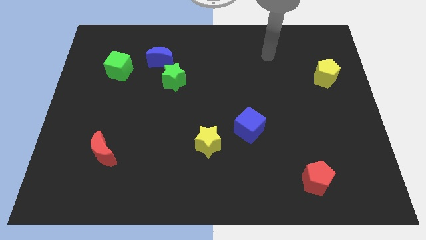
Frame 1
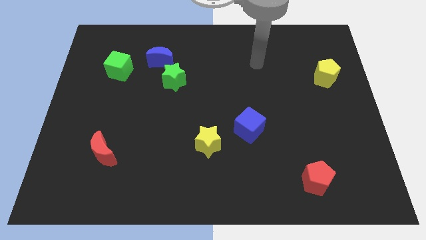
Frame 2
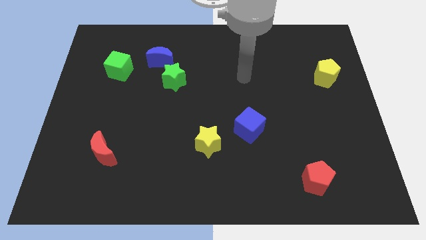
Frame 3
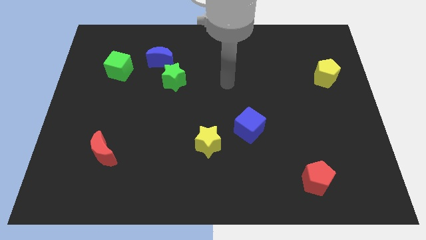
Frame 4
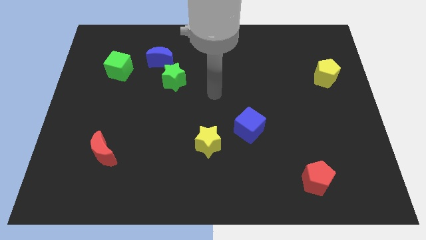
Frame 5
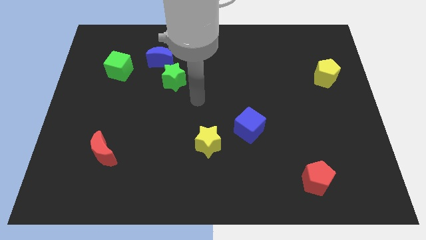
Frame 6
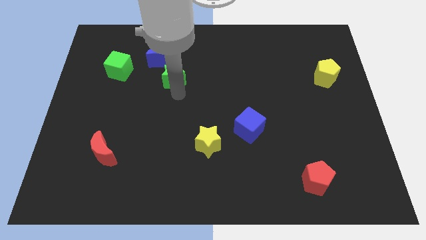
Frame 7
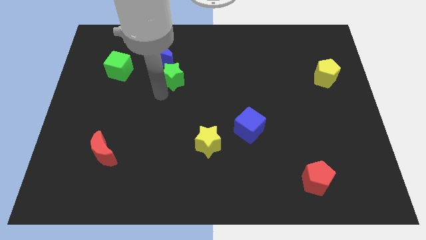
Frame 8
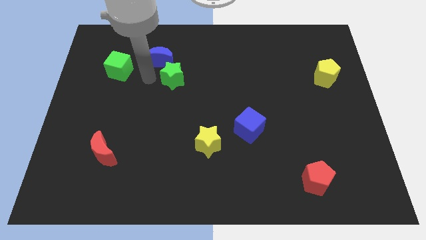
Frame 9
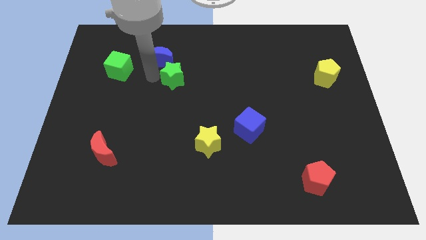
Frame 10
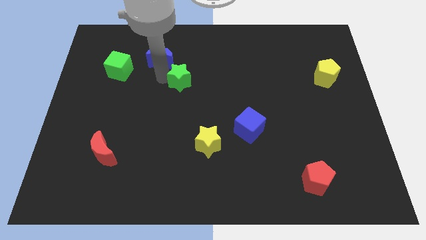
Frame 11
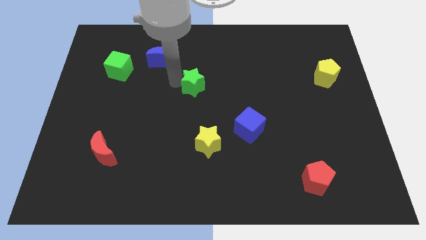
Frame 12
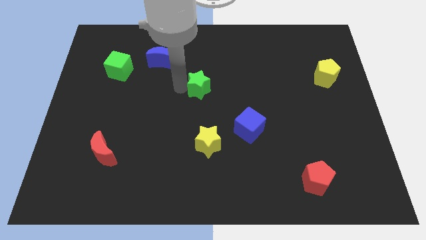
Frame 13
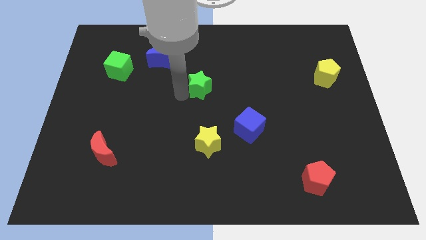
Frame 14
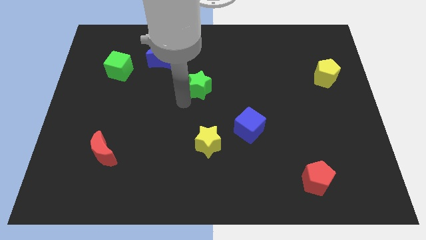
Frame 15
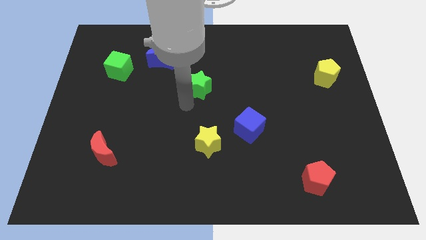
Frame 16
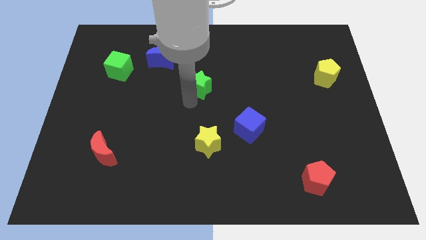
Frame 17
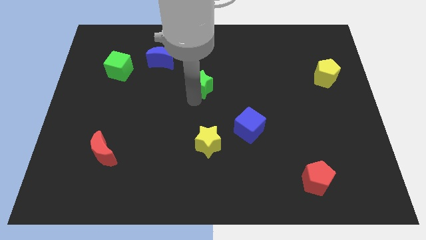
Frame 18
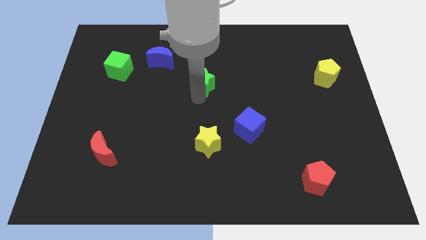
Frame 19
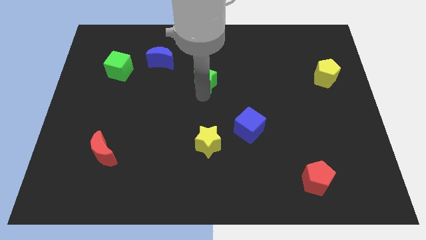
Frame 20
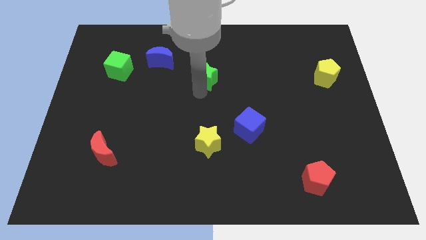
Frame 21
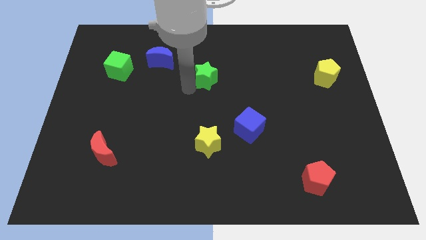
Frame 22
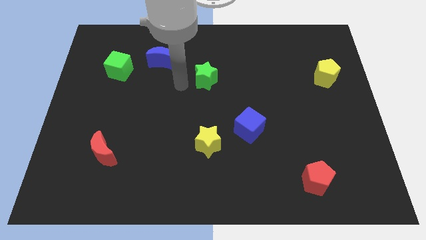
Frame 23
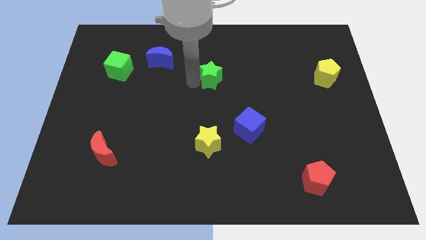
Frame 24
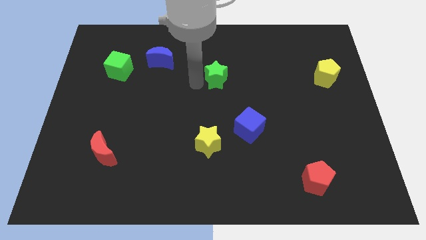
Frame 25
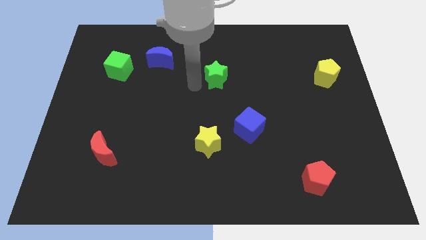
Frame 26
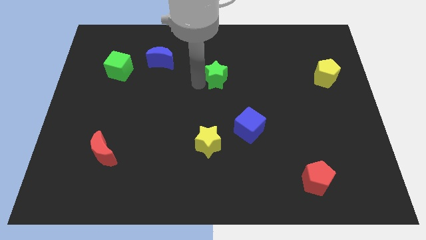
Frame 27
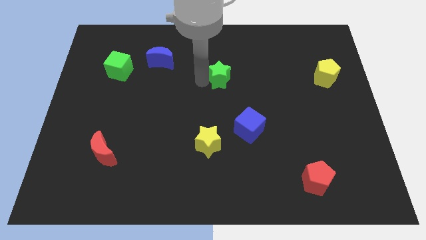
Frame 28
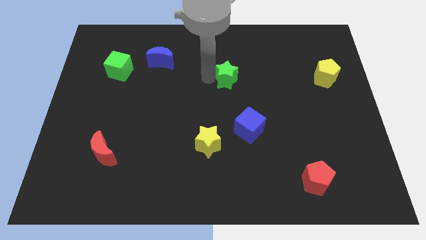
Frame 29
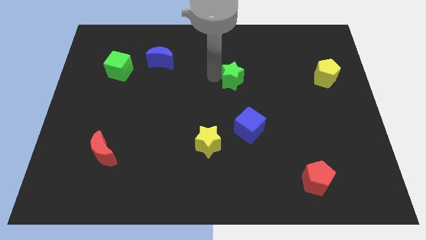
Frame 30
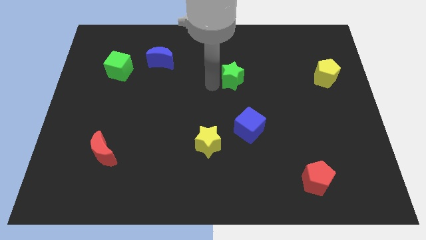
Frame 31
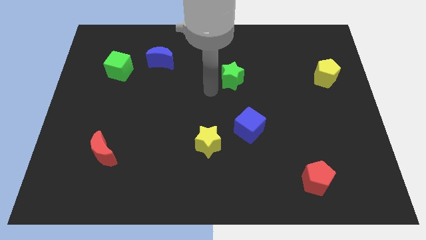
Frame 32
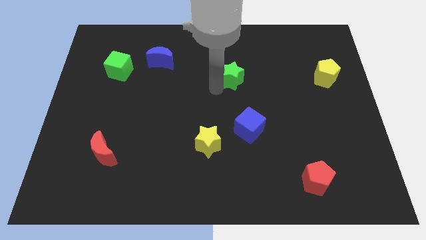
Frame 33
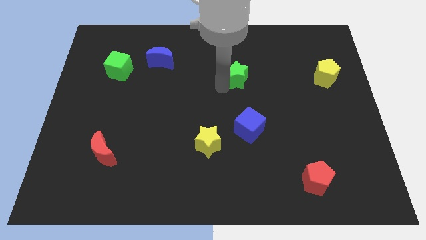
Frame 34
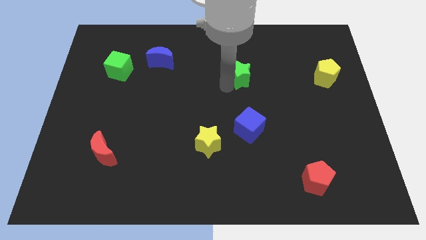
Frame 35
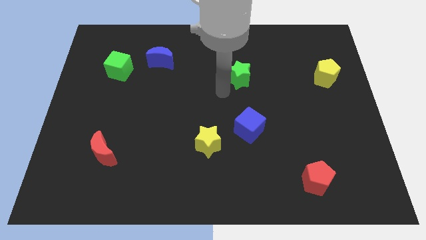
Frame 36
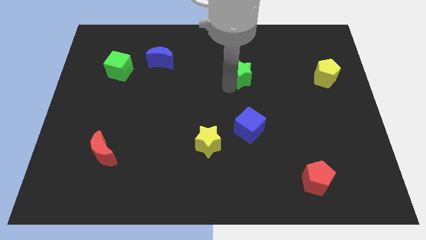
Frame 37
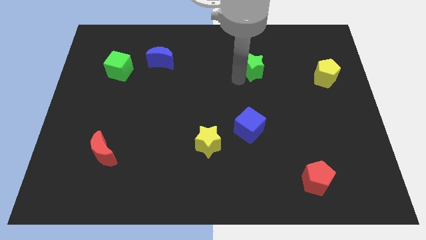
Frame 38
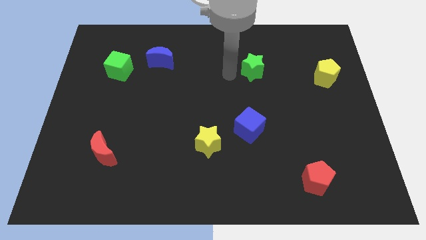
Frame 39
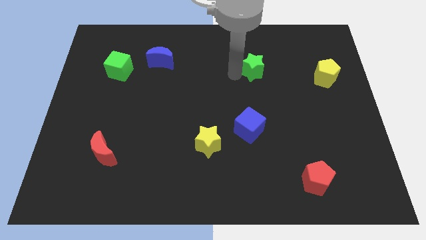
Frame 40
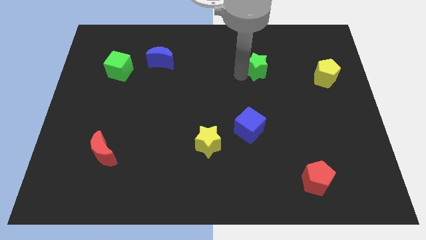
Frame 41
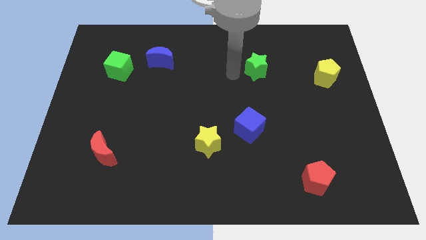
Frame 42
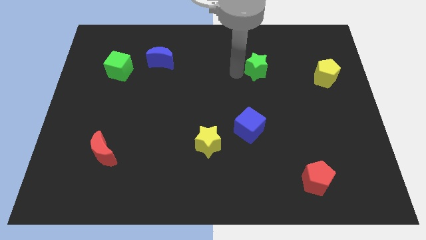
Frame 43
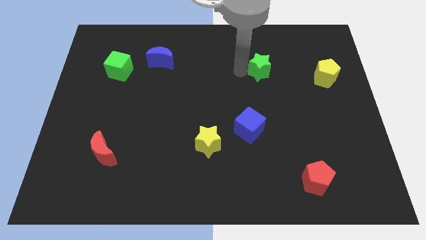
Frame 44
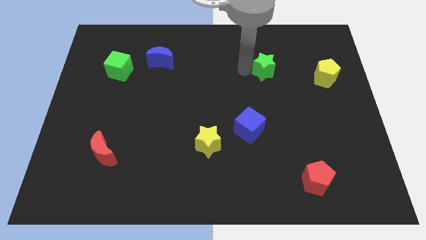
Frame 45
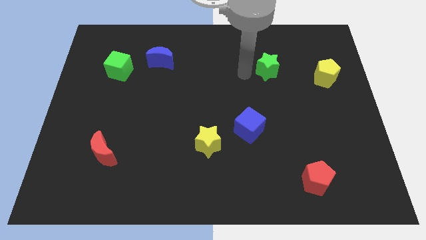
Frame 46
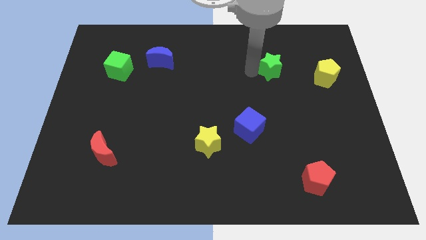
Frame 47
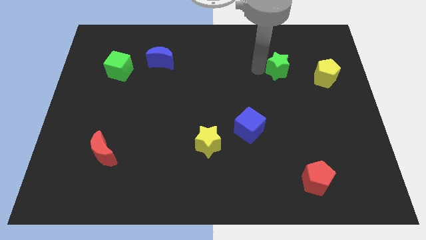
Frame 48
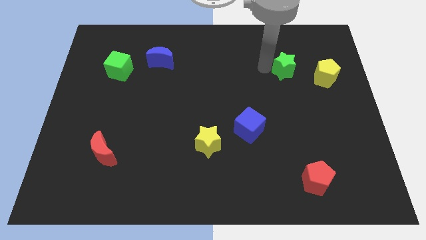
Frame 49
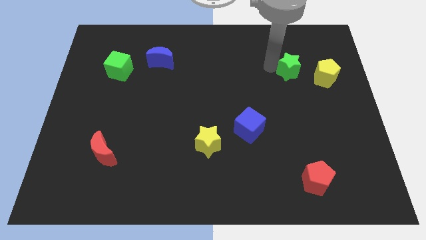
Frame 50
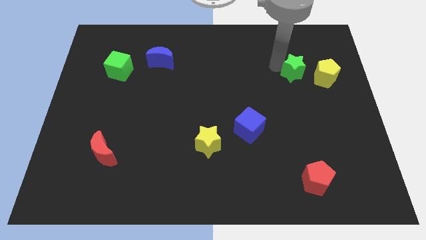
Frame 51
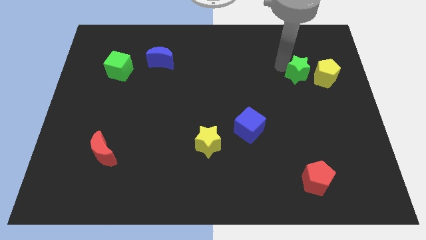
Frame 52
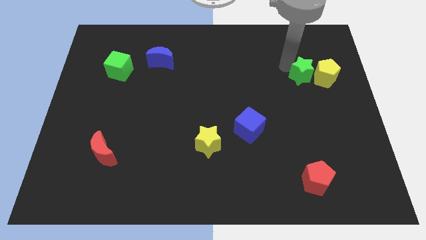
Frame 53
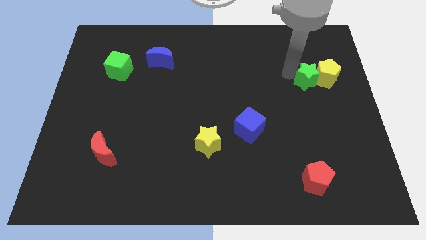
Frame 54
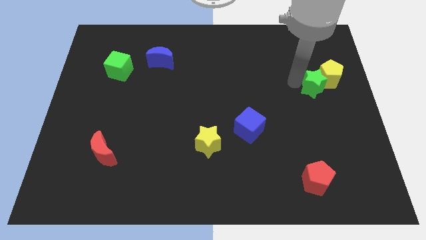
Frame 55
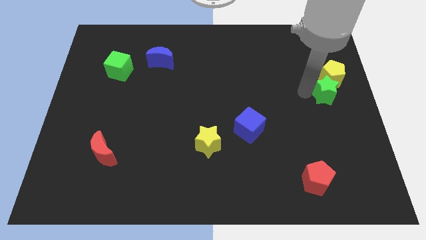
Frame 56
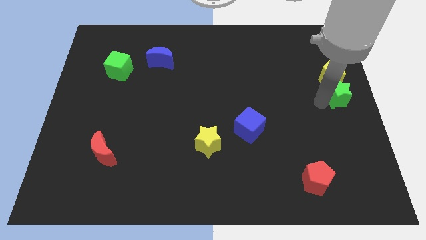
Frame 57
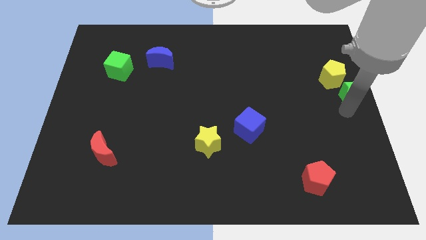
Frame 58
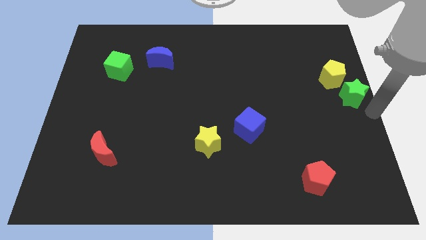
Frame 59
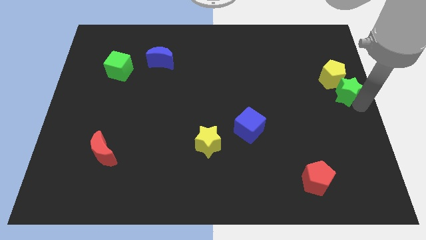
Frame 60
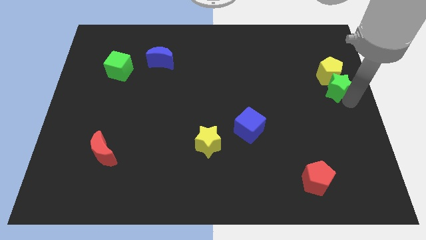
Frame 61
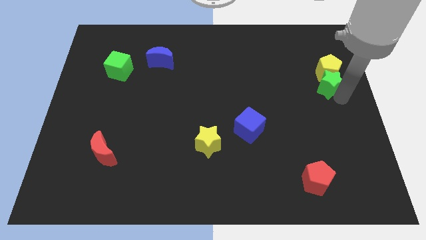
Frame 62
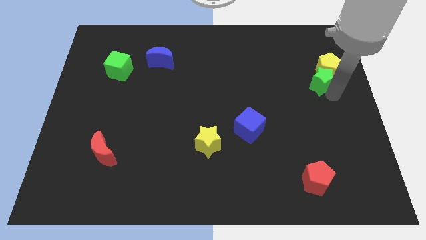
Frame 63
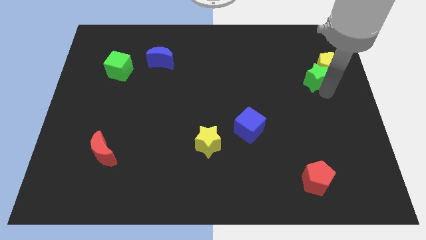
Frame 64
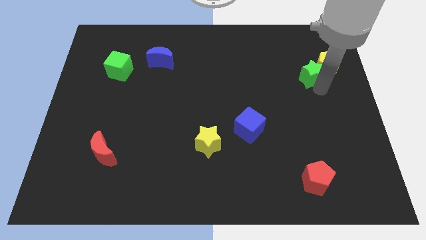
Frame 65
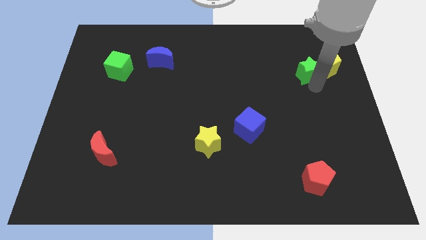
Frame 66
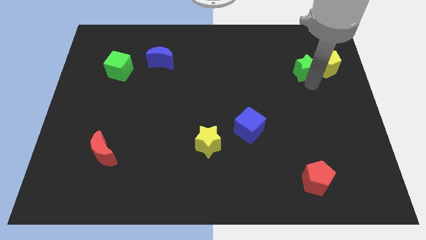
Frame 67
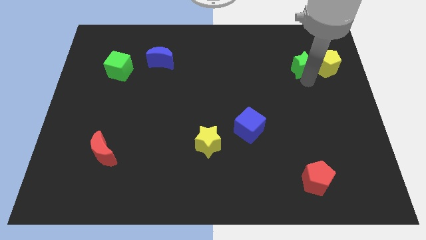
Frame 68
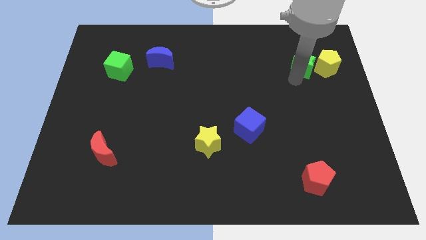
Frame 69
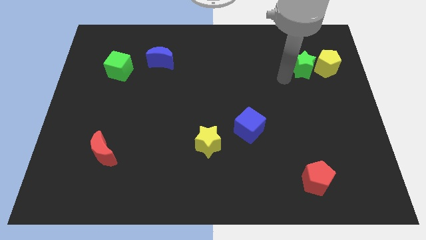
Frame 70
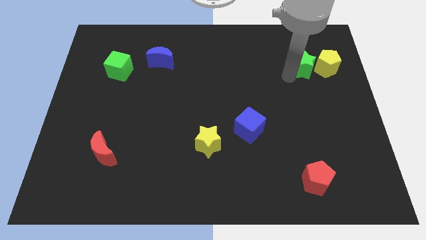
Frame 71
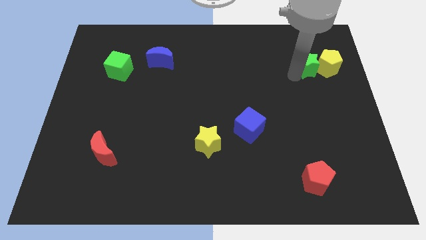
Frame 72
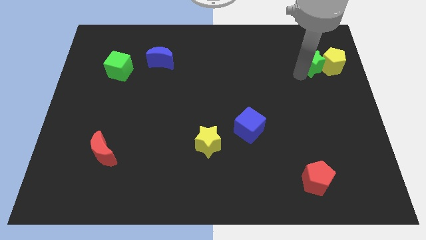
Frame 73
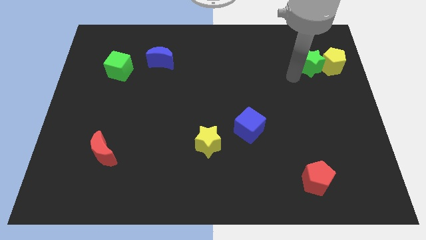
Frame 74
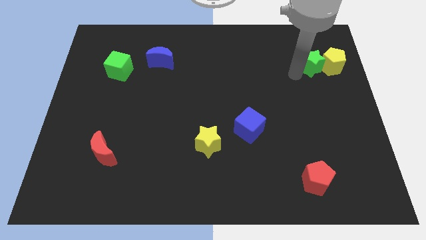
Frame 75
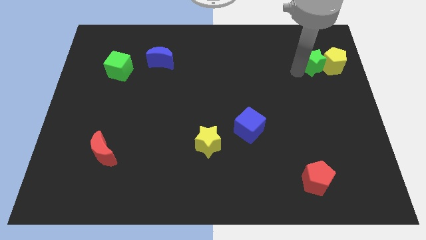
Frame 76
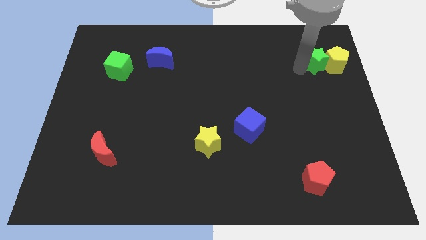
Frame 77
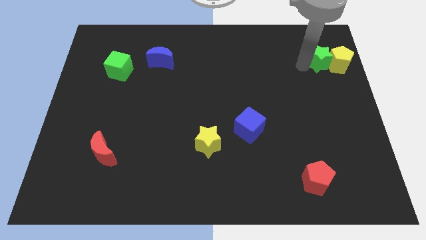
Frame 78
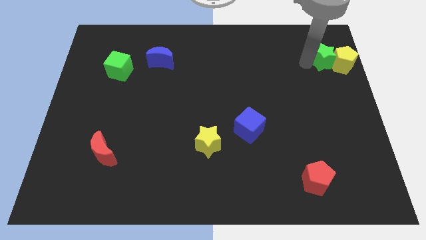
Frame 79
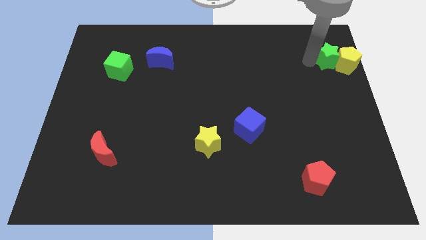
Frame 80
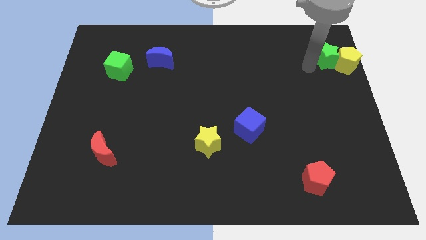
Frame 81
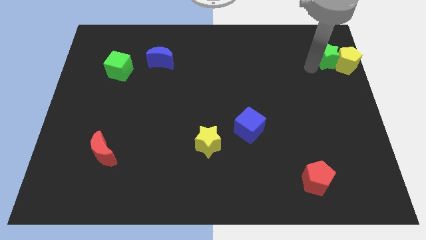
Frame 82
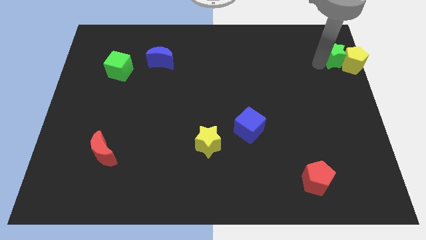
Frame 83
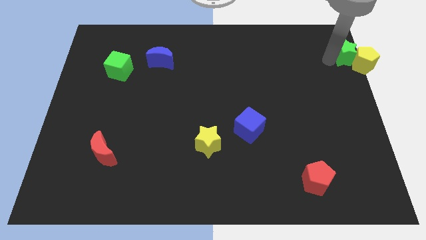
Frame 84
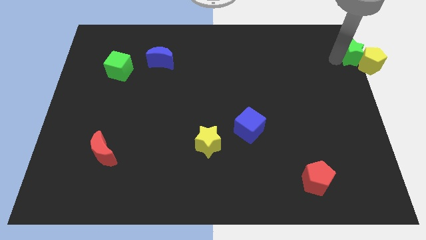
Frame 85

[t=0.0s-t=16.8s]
put the green star to the top right corner
